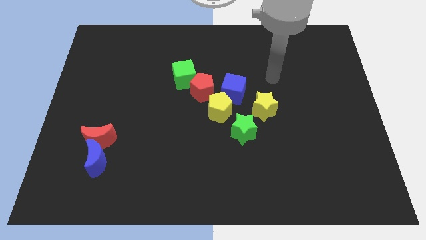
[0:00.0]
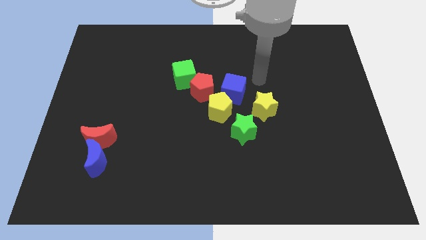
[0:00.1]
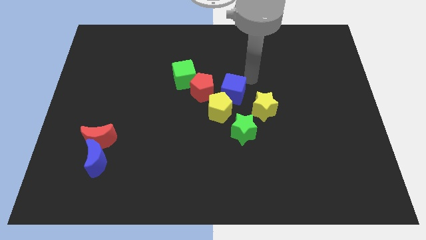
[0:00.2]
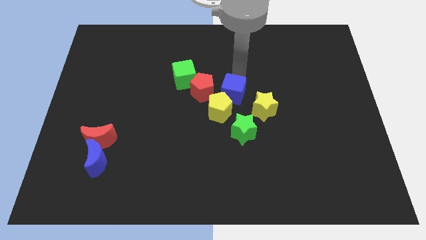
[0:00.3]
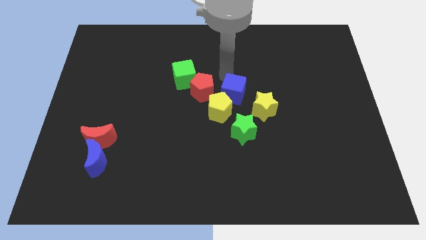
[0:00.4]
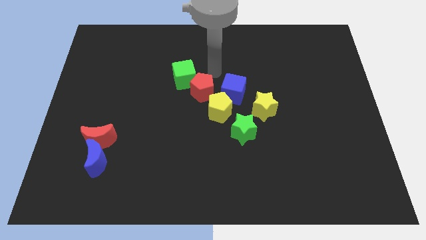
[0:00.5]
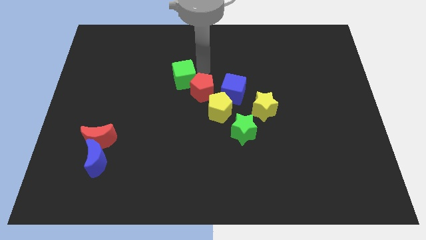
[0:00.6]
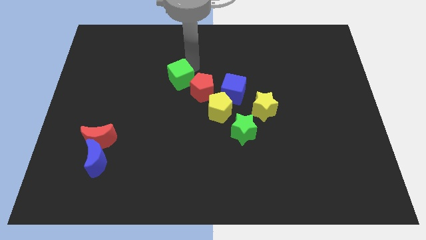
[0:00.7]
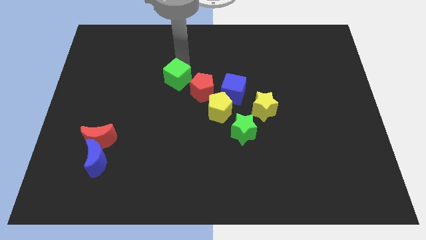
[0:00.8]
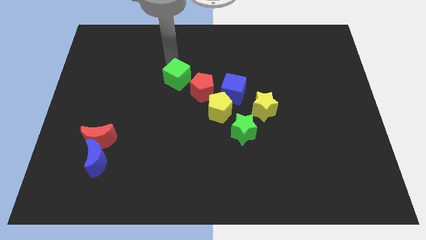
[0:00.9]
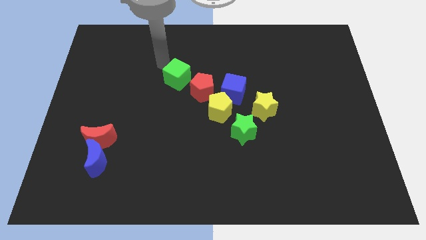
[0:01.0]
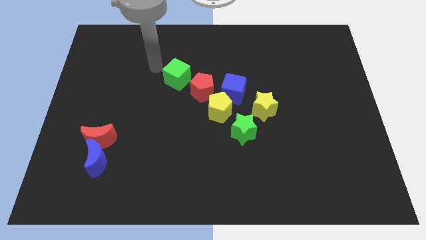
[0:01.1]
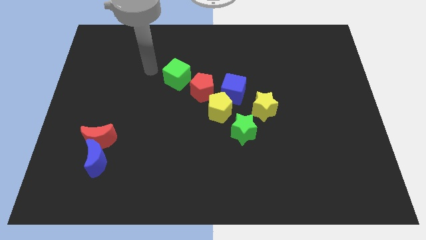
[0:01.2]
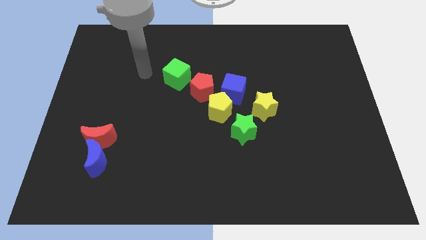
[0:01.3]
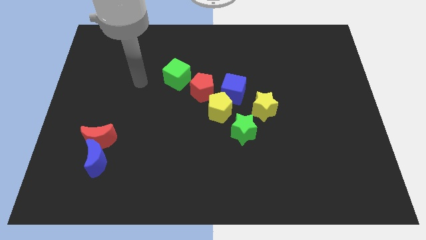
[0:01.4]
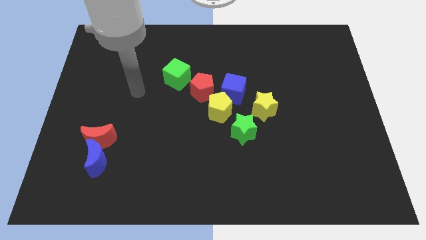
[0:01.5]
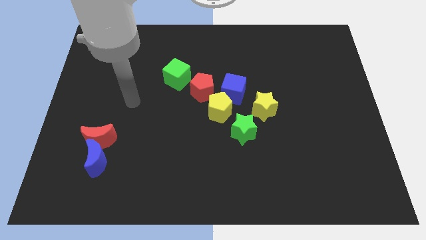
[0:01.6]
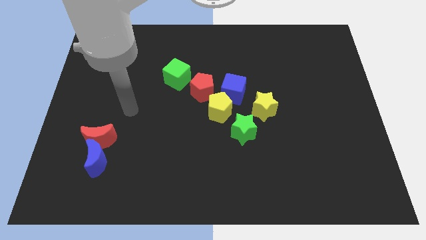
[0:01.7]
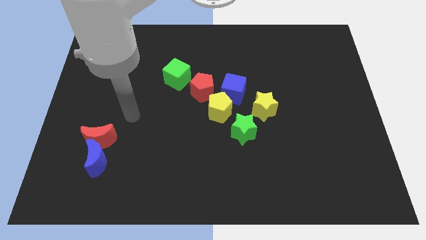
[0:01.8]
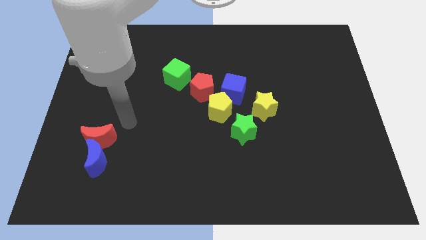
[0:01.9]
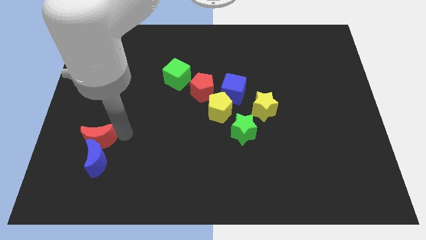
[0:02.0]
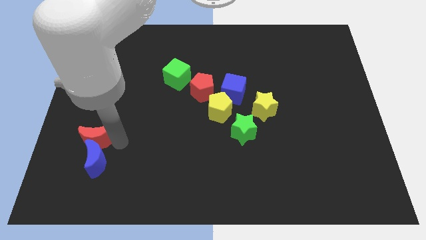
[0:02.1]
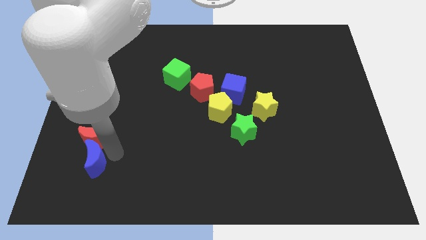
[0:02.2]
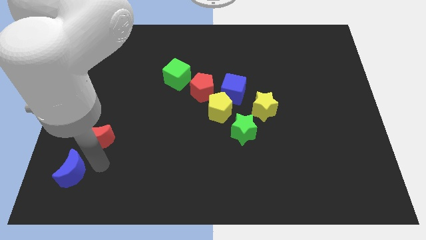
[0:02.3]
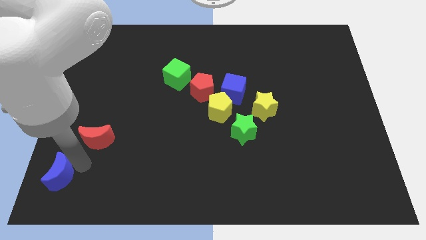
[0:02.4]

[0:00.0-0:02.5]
separate the red moon from the blue moon

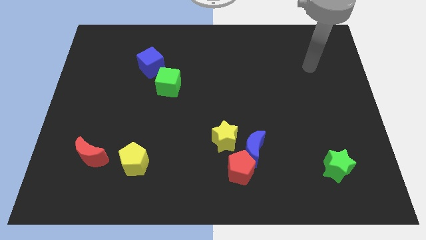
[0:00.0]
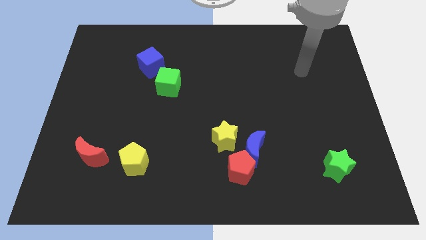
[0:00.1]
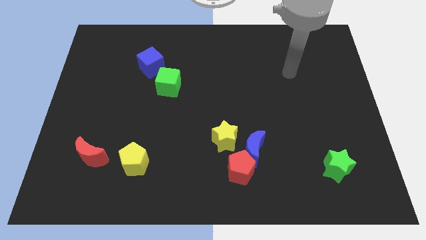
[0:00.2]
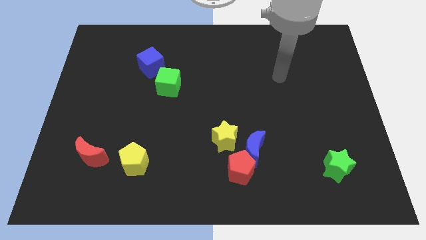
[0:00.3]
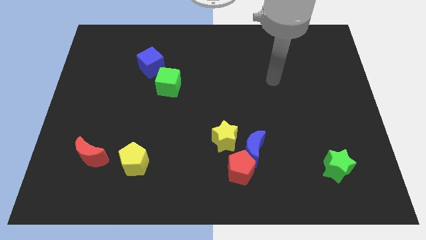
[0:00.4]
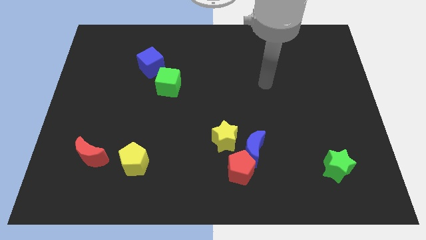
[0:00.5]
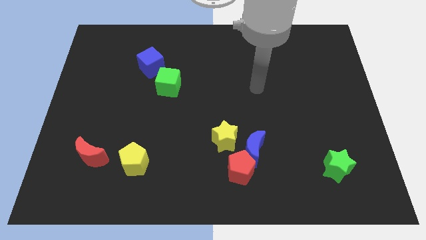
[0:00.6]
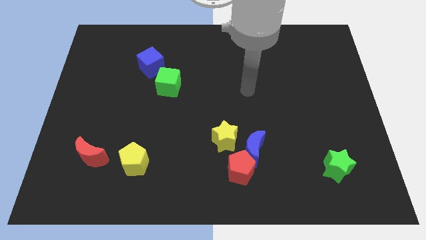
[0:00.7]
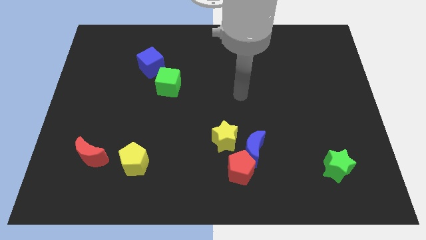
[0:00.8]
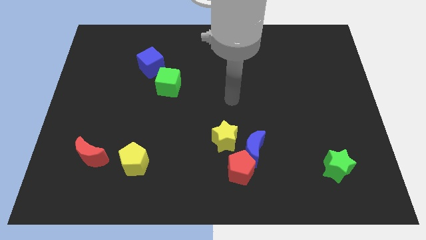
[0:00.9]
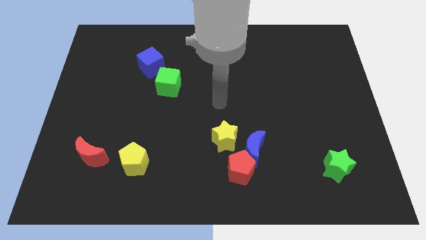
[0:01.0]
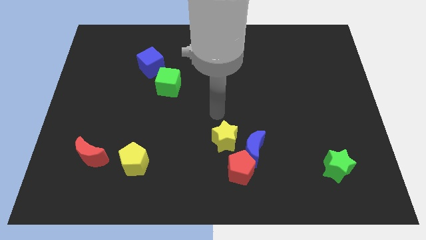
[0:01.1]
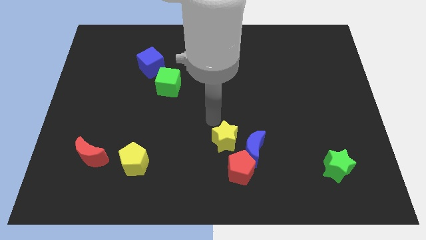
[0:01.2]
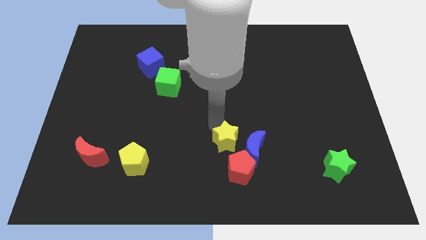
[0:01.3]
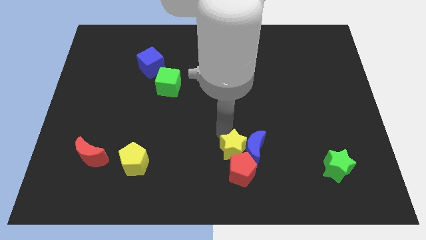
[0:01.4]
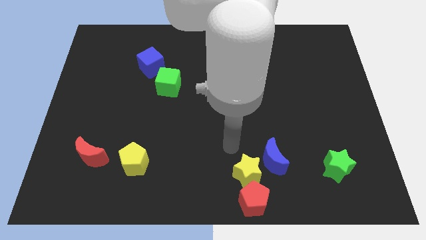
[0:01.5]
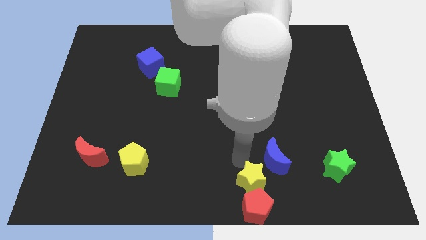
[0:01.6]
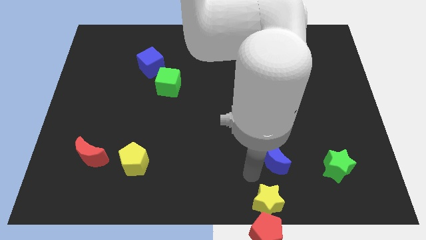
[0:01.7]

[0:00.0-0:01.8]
move the blue moon away from the red pentagon and yellow star

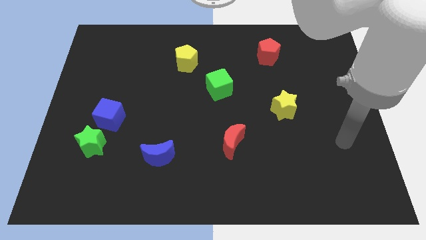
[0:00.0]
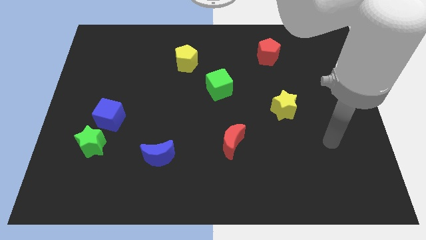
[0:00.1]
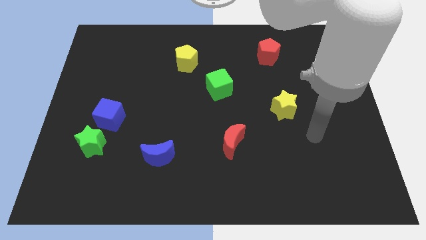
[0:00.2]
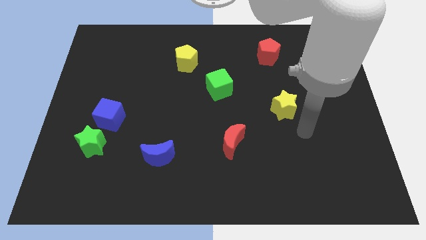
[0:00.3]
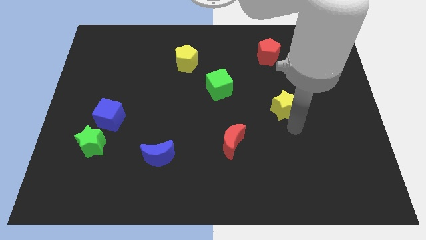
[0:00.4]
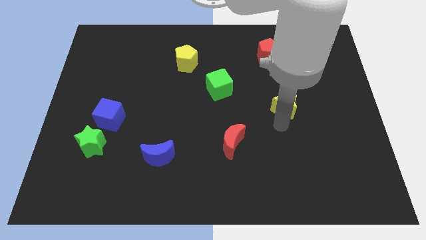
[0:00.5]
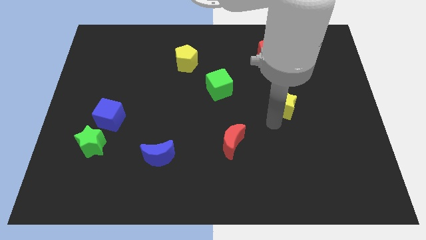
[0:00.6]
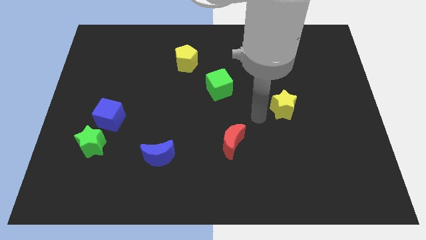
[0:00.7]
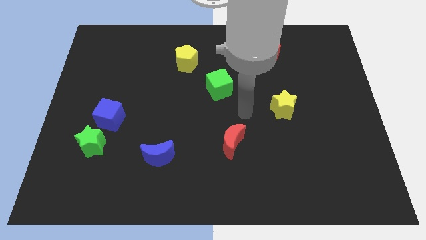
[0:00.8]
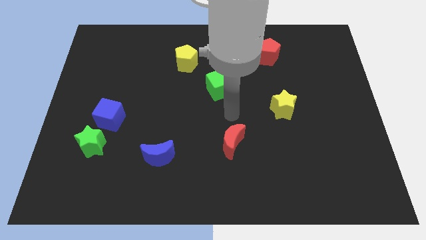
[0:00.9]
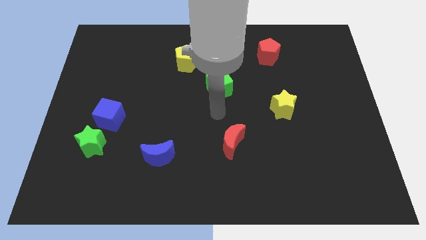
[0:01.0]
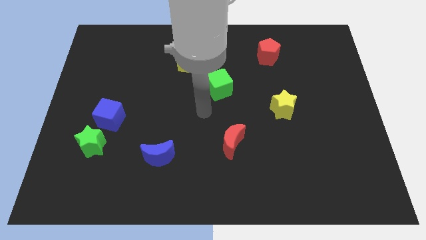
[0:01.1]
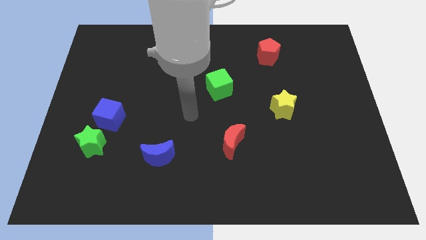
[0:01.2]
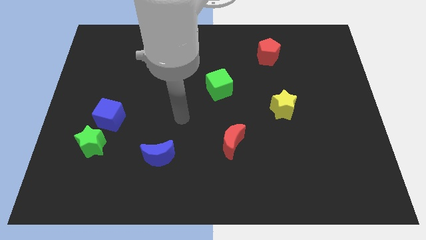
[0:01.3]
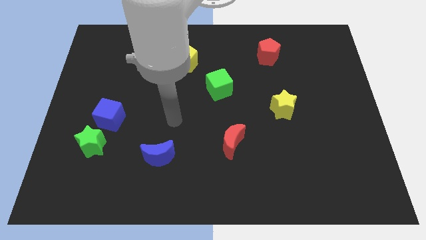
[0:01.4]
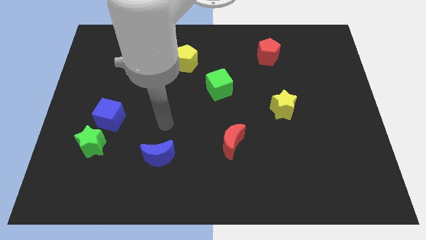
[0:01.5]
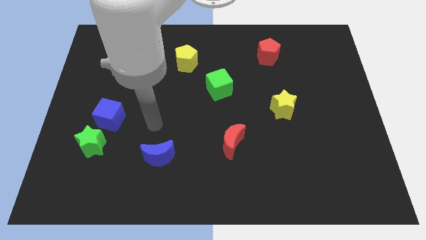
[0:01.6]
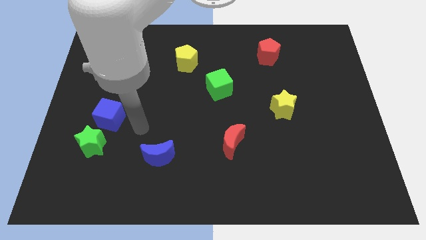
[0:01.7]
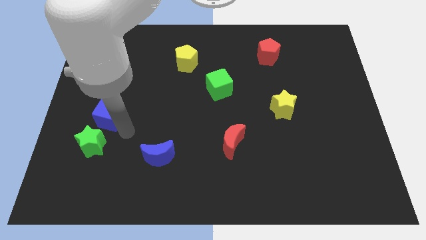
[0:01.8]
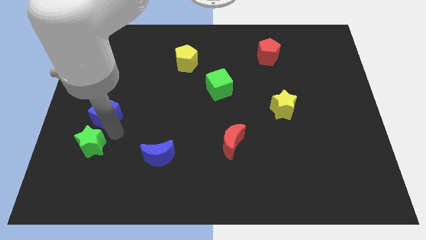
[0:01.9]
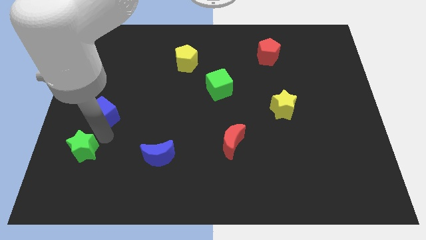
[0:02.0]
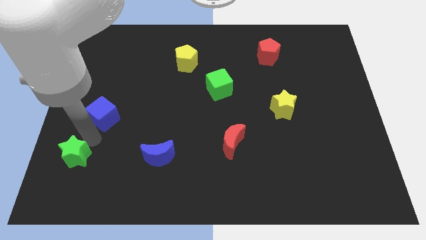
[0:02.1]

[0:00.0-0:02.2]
pull the blue cube apart from the green star

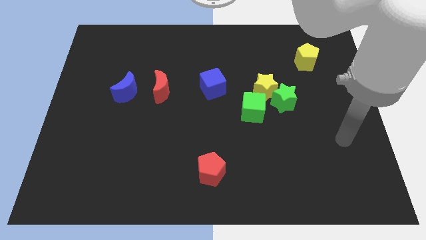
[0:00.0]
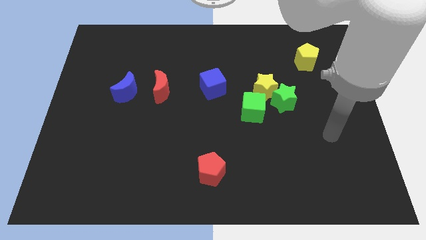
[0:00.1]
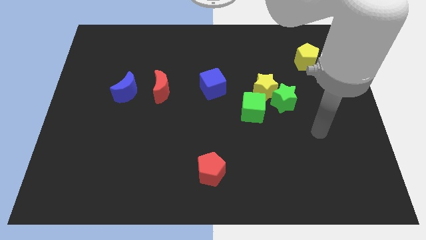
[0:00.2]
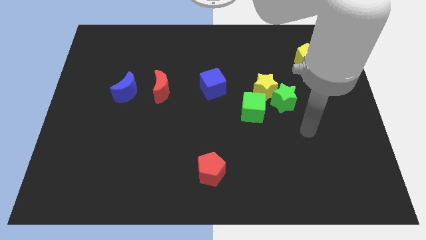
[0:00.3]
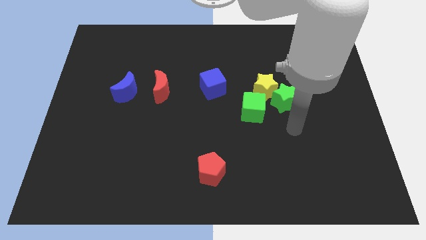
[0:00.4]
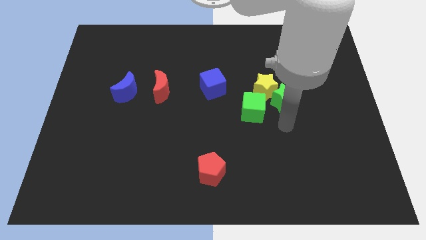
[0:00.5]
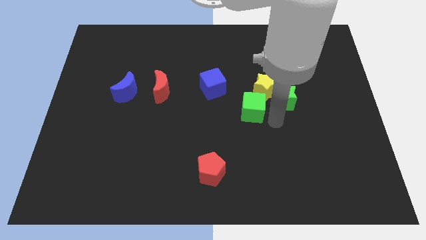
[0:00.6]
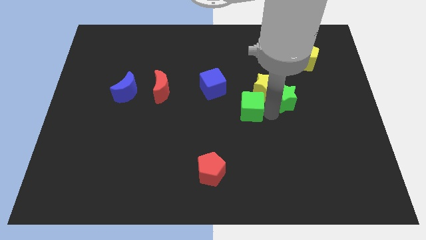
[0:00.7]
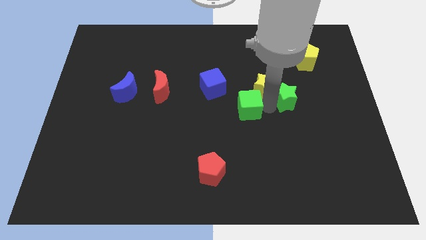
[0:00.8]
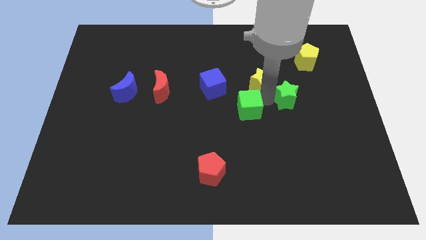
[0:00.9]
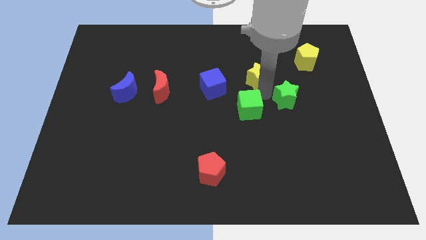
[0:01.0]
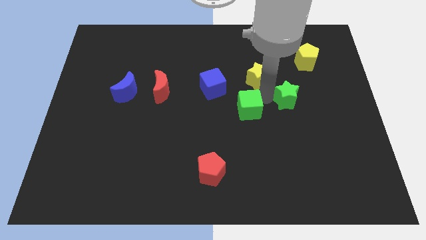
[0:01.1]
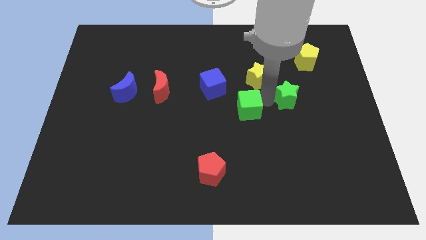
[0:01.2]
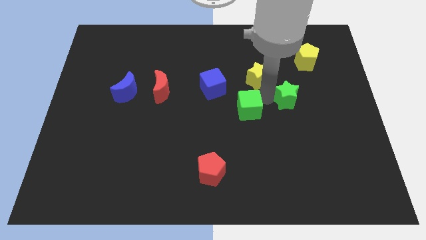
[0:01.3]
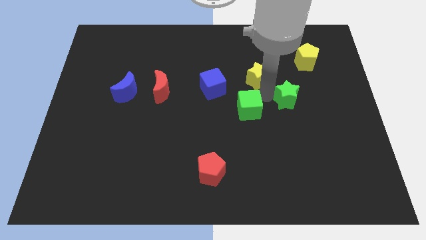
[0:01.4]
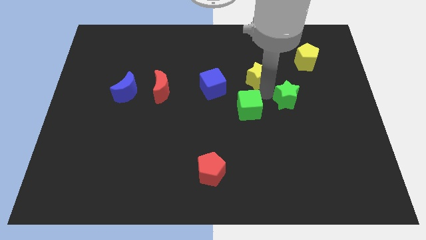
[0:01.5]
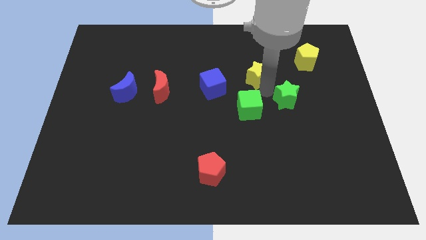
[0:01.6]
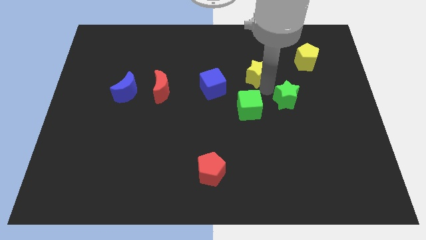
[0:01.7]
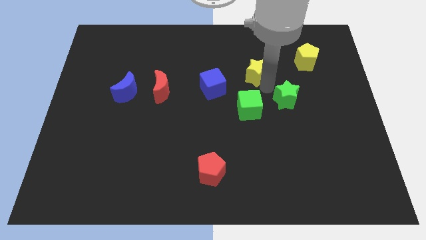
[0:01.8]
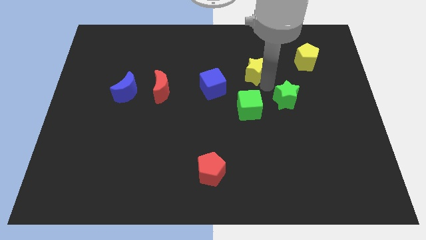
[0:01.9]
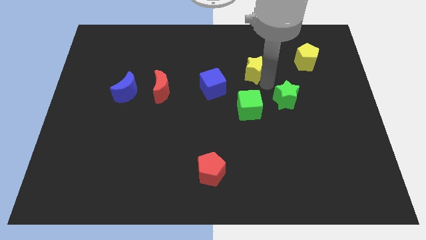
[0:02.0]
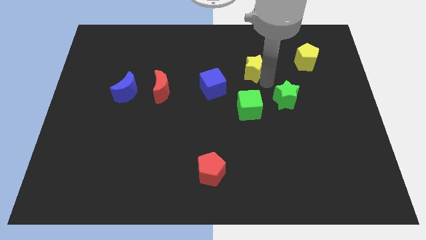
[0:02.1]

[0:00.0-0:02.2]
separate the yellow star from the green star and green cube

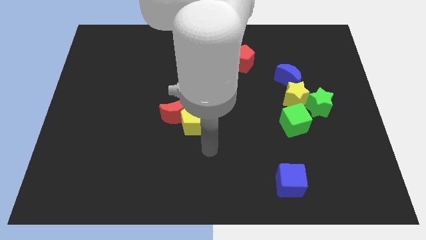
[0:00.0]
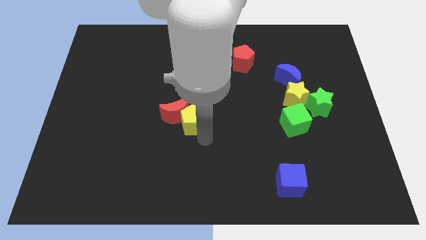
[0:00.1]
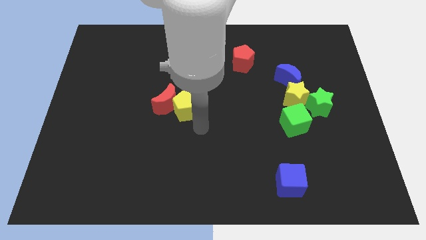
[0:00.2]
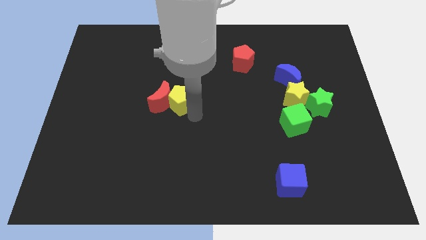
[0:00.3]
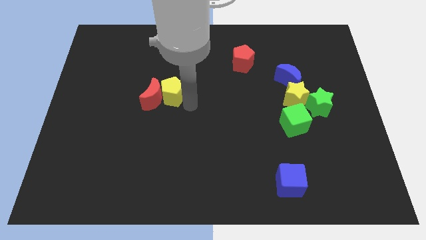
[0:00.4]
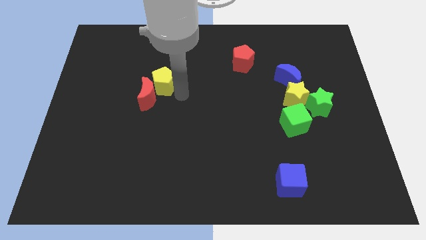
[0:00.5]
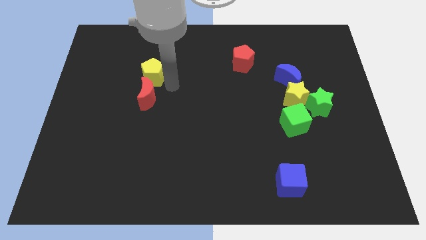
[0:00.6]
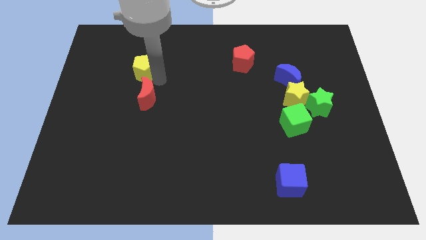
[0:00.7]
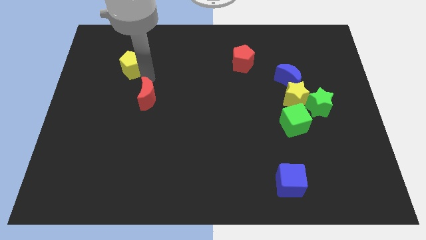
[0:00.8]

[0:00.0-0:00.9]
pull the red moon apart from the yellow pentagon
